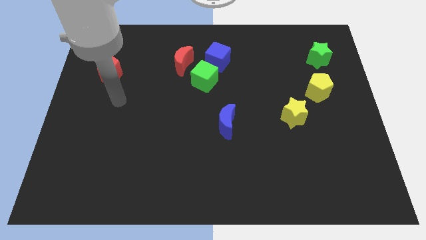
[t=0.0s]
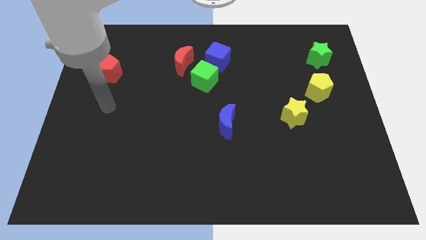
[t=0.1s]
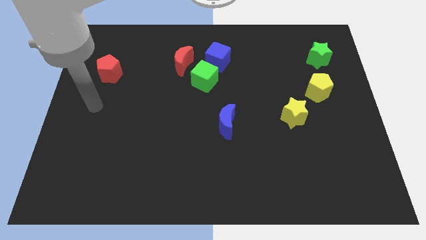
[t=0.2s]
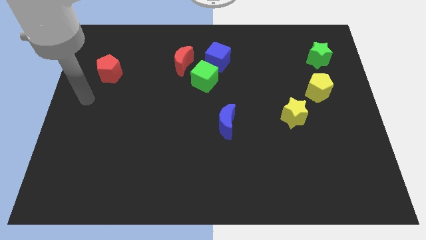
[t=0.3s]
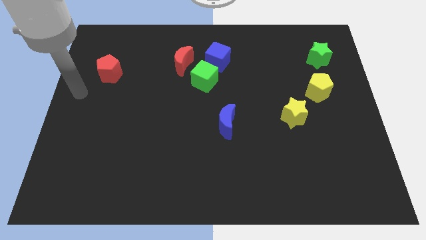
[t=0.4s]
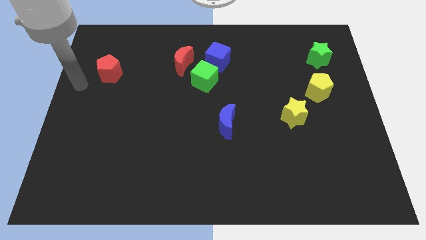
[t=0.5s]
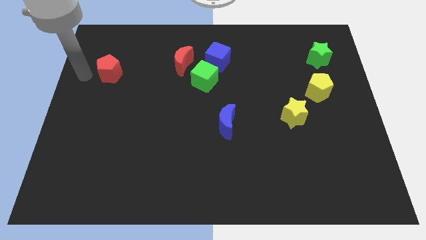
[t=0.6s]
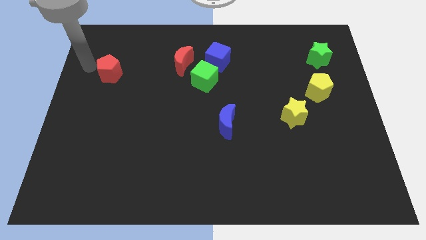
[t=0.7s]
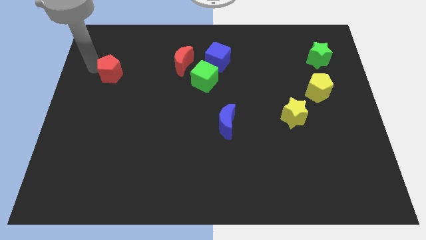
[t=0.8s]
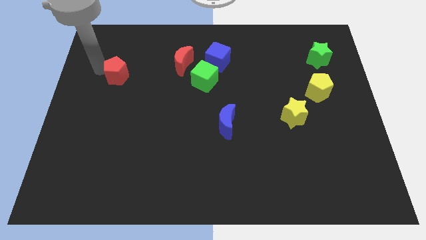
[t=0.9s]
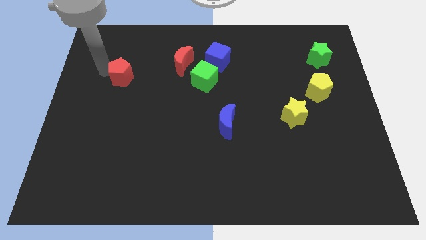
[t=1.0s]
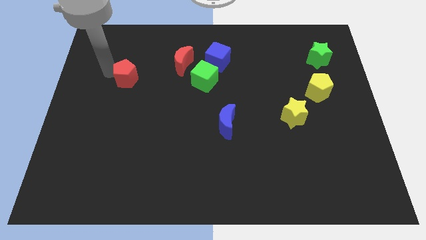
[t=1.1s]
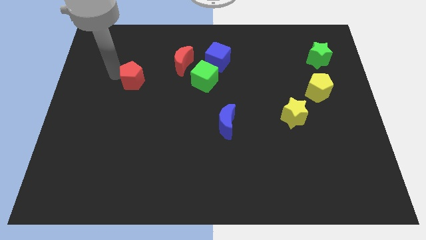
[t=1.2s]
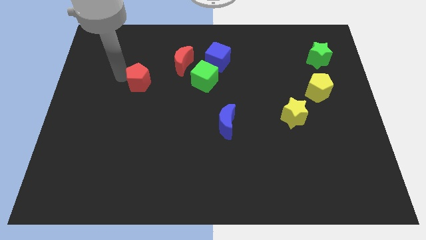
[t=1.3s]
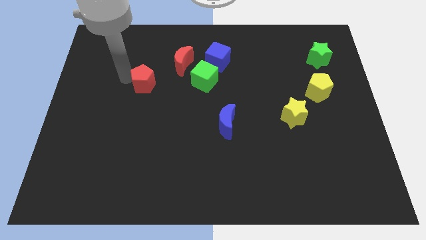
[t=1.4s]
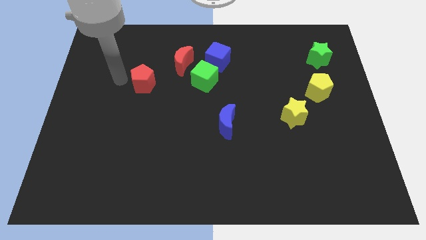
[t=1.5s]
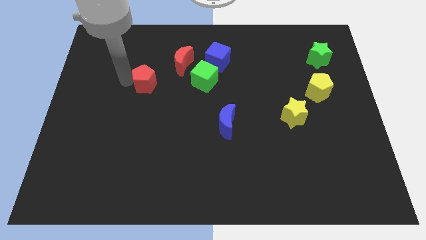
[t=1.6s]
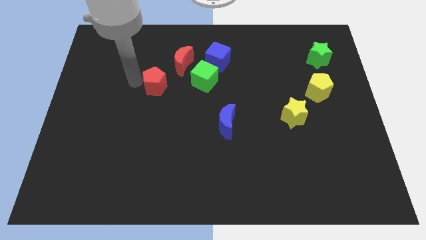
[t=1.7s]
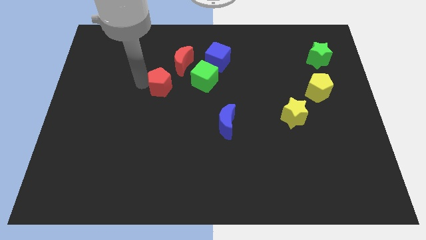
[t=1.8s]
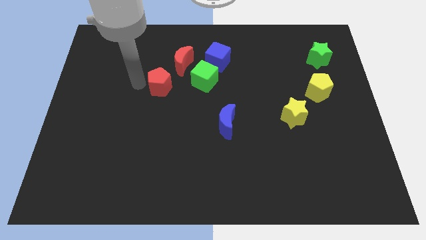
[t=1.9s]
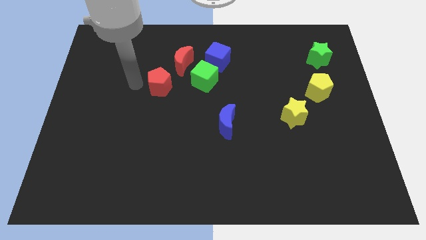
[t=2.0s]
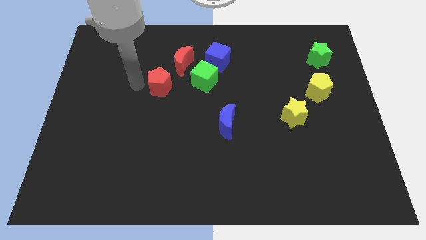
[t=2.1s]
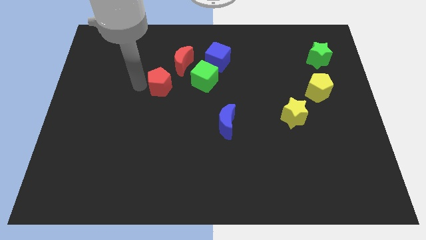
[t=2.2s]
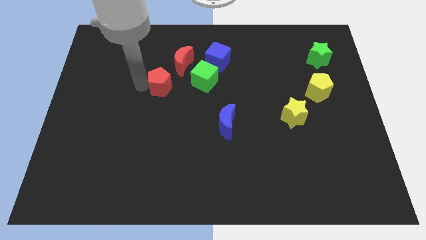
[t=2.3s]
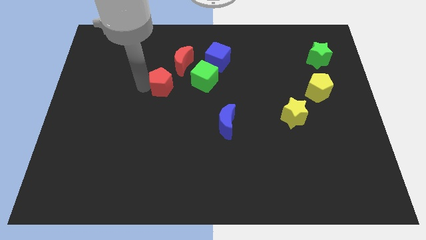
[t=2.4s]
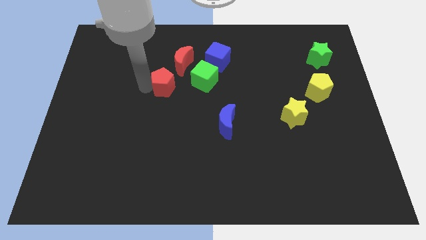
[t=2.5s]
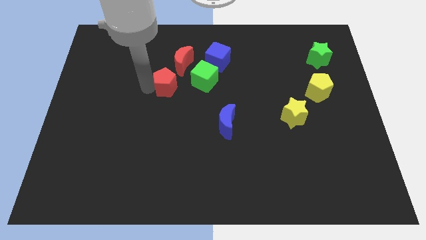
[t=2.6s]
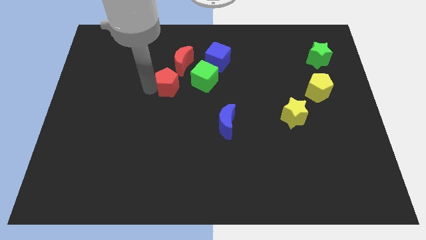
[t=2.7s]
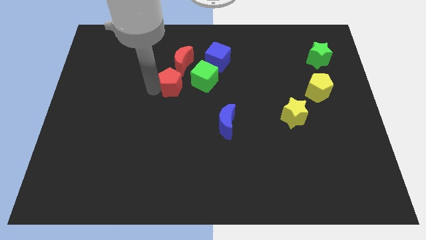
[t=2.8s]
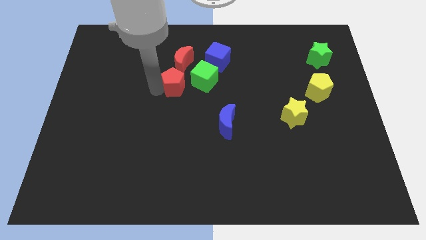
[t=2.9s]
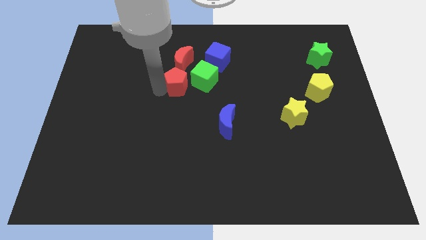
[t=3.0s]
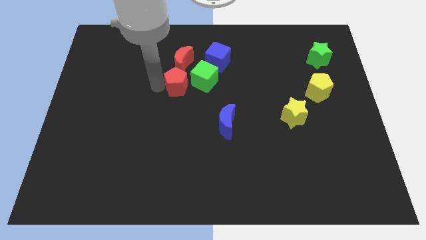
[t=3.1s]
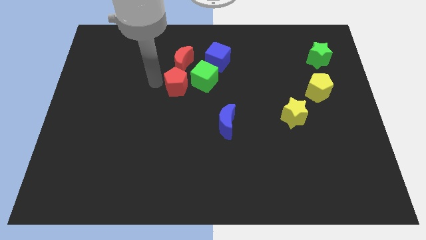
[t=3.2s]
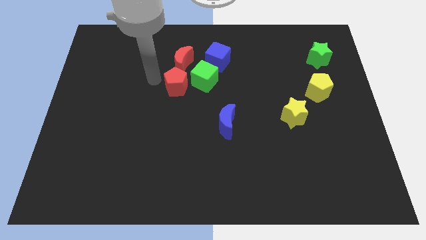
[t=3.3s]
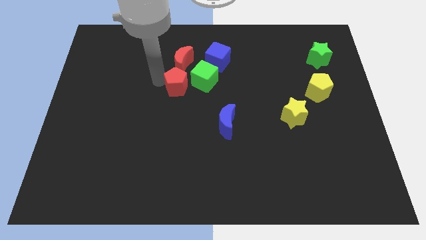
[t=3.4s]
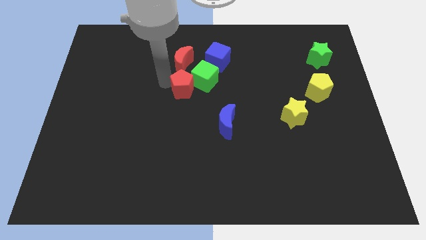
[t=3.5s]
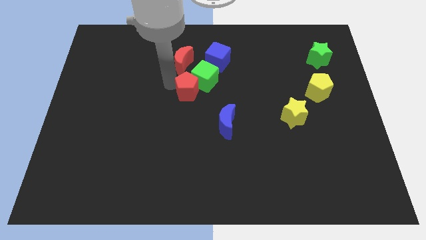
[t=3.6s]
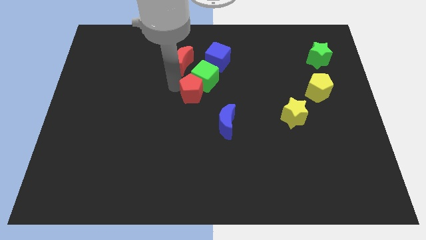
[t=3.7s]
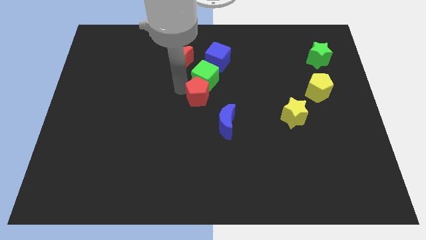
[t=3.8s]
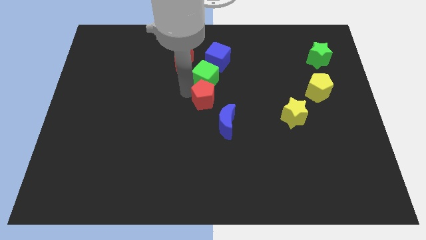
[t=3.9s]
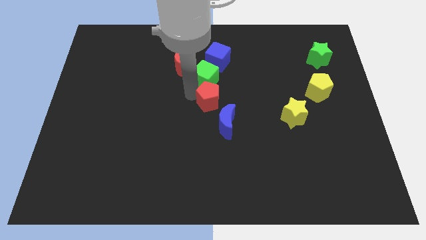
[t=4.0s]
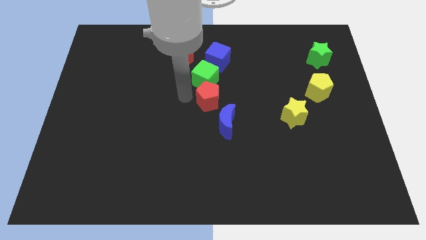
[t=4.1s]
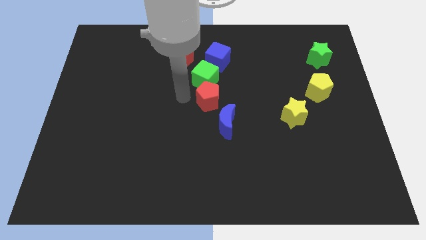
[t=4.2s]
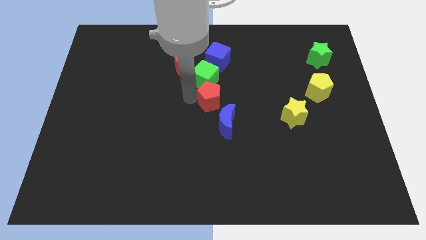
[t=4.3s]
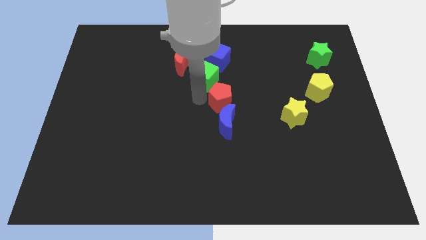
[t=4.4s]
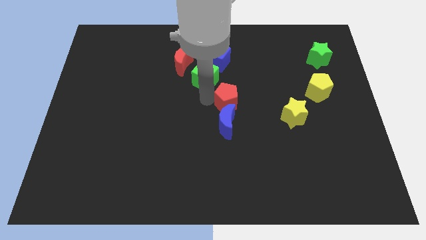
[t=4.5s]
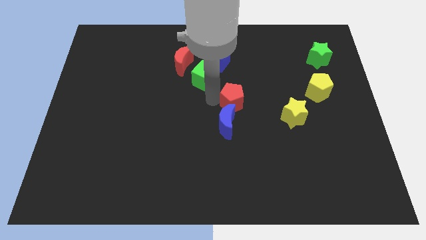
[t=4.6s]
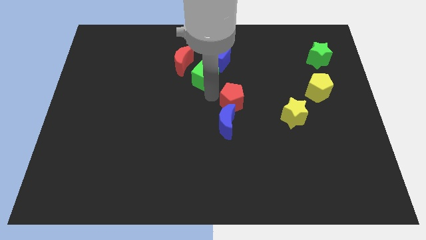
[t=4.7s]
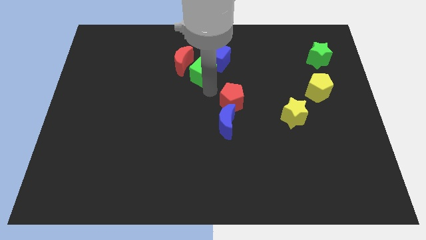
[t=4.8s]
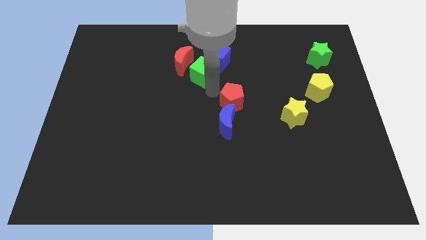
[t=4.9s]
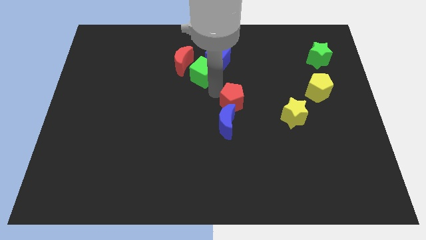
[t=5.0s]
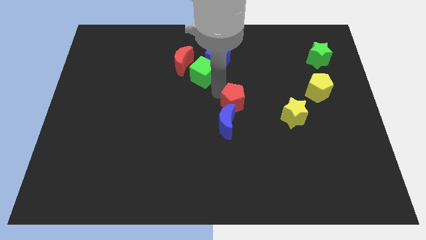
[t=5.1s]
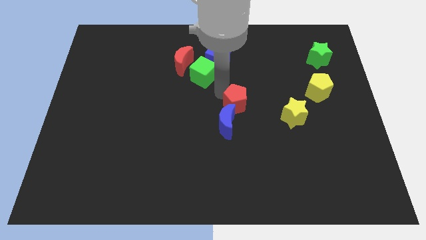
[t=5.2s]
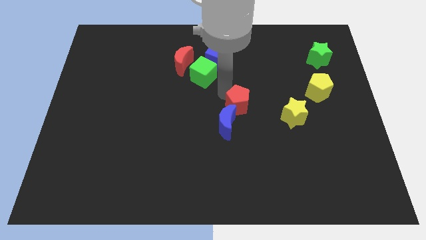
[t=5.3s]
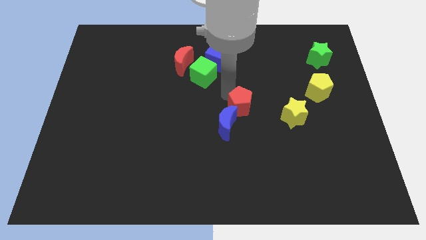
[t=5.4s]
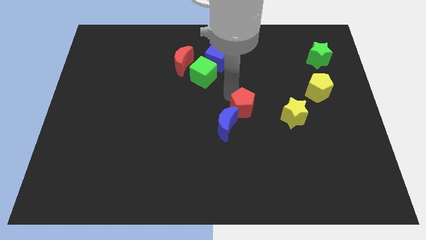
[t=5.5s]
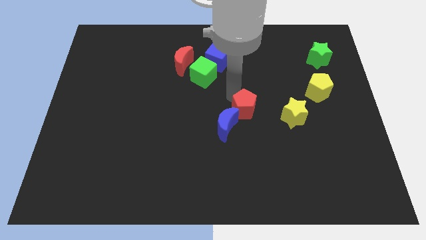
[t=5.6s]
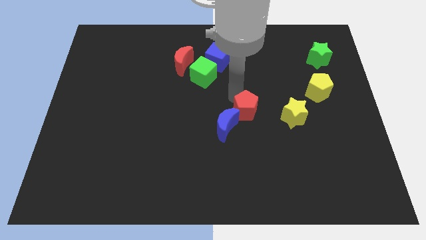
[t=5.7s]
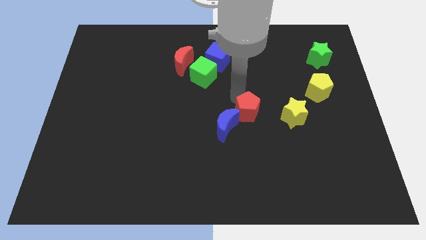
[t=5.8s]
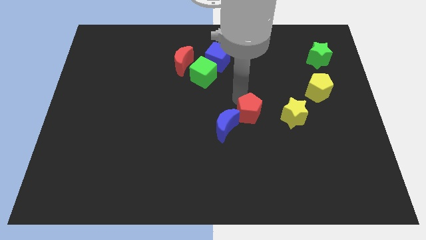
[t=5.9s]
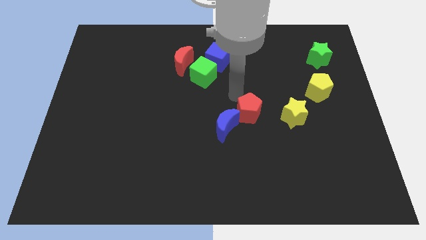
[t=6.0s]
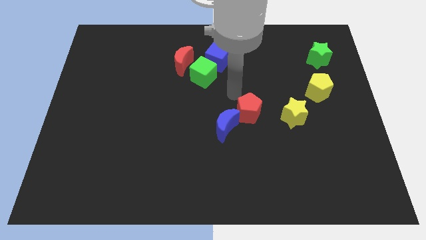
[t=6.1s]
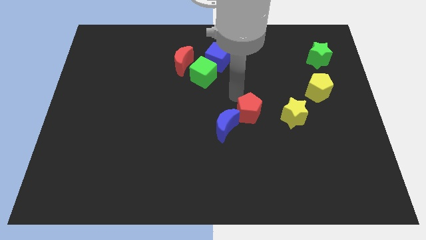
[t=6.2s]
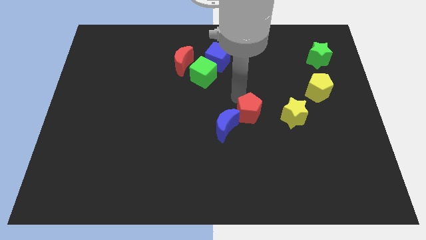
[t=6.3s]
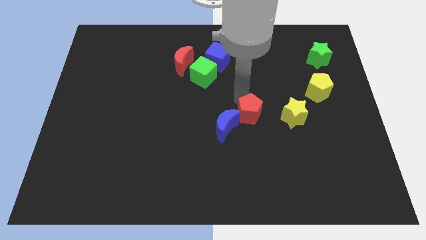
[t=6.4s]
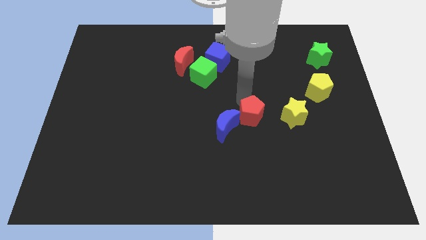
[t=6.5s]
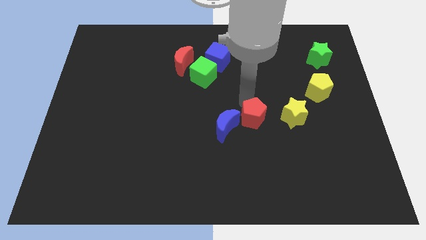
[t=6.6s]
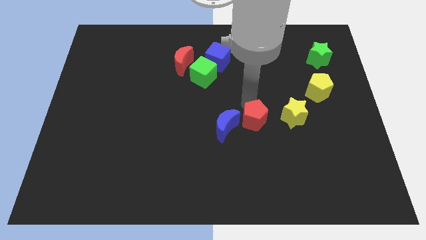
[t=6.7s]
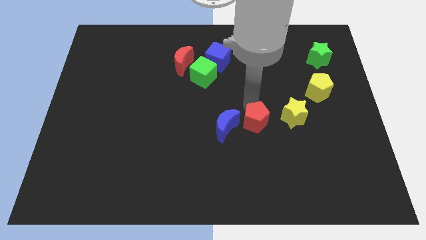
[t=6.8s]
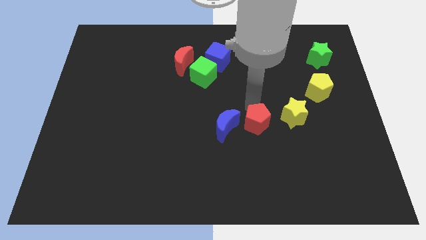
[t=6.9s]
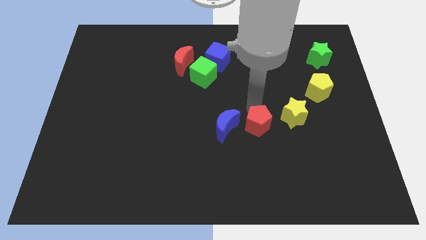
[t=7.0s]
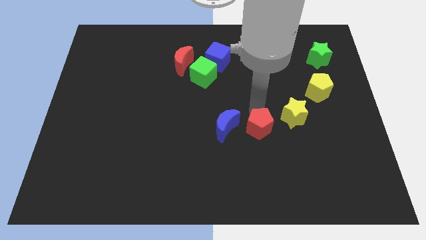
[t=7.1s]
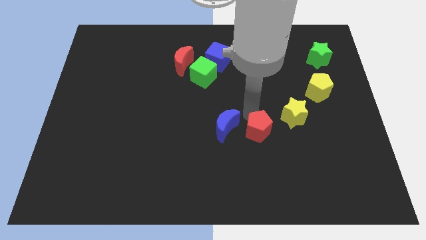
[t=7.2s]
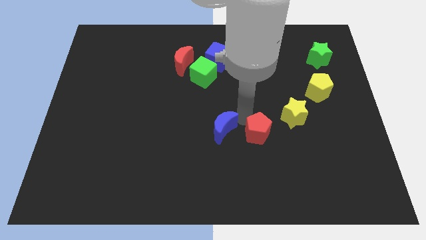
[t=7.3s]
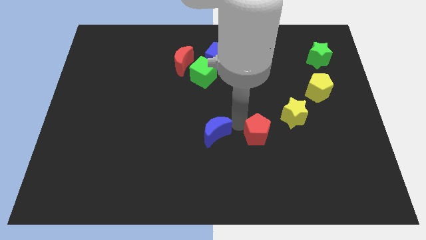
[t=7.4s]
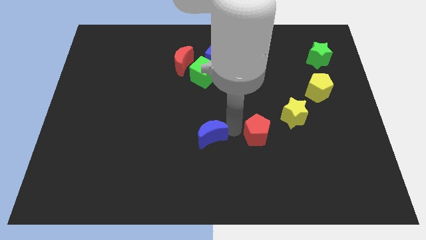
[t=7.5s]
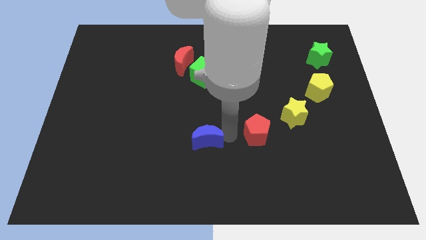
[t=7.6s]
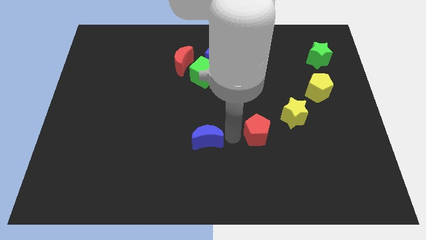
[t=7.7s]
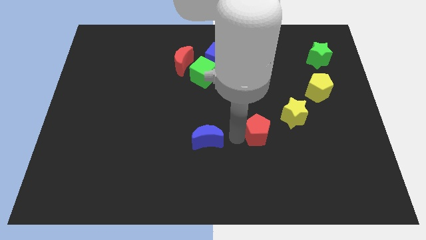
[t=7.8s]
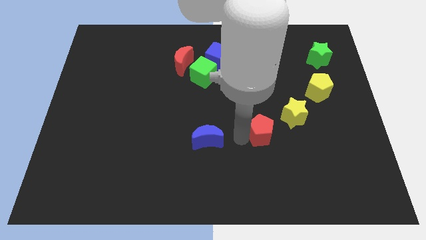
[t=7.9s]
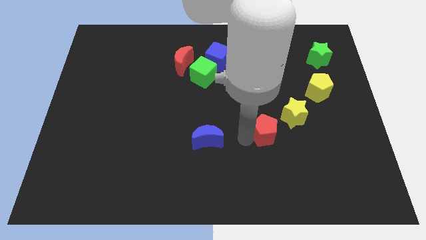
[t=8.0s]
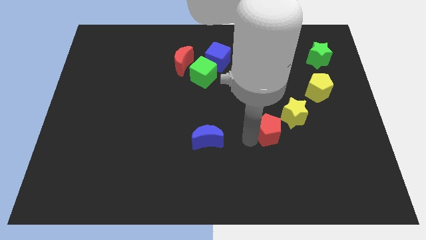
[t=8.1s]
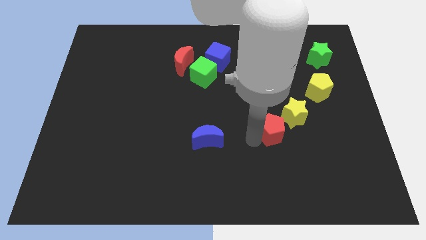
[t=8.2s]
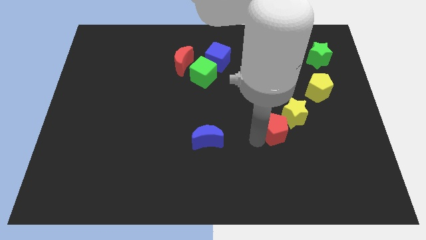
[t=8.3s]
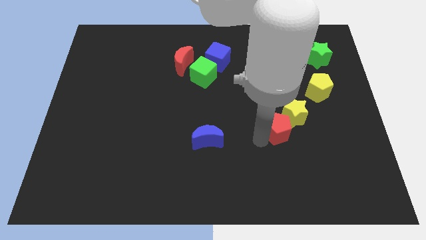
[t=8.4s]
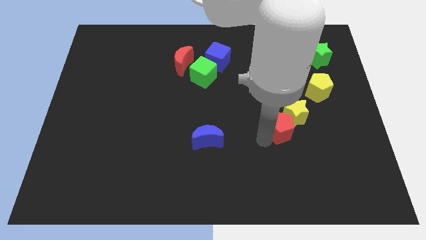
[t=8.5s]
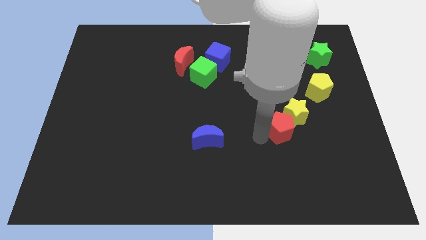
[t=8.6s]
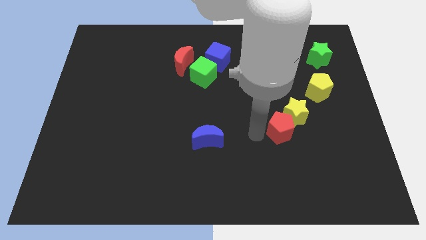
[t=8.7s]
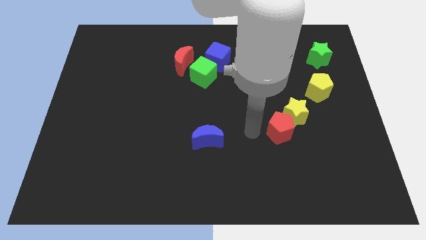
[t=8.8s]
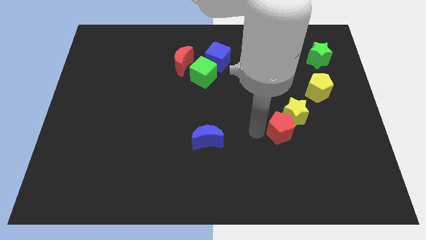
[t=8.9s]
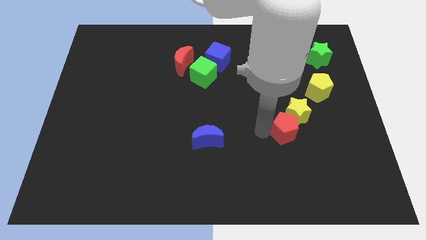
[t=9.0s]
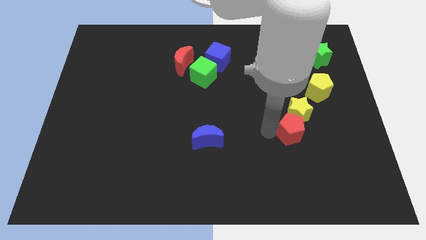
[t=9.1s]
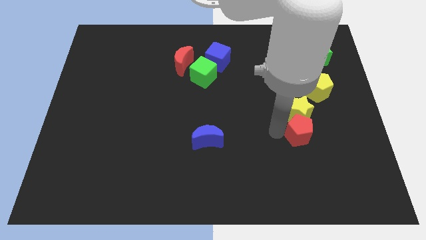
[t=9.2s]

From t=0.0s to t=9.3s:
slide the red pentagon diagonally down and to the right of the yellow star
